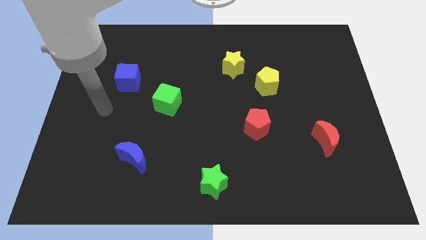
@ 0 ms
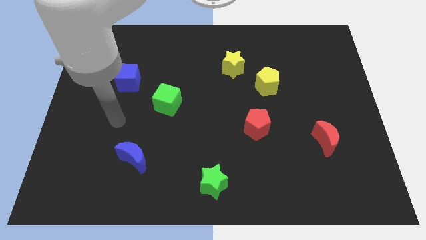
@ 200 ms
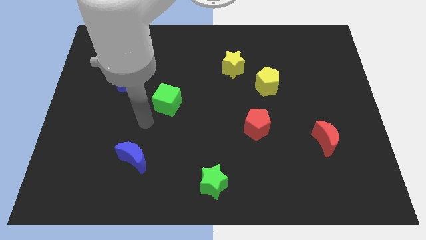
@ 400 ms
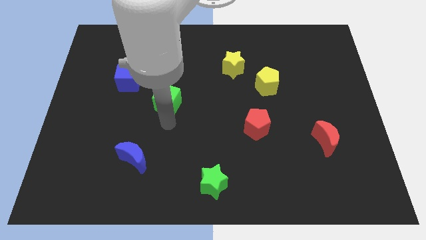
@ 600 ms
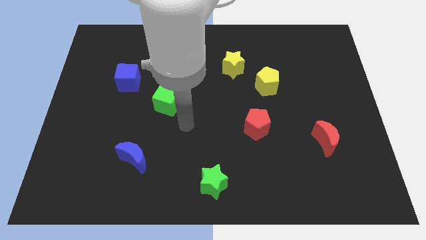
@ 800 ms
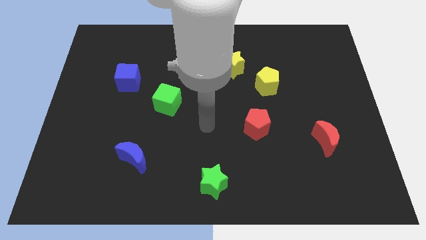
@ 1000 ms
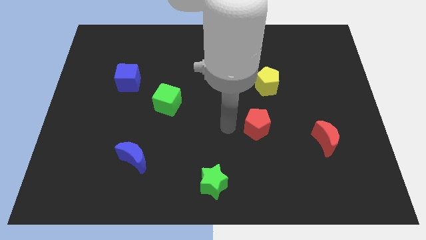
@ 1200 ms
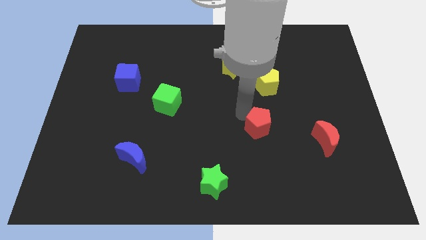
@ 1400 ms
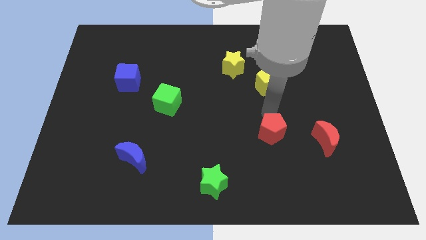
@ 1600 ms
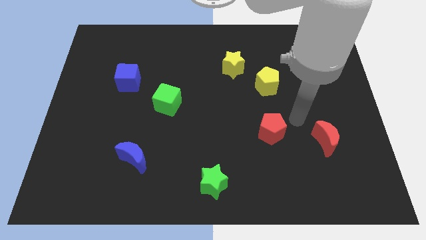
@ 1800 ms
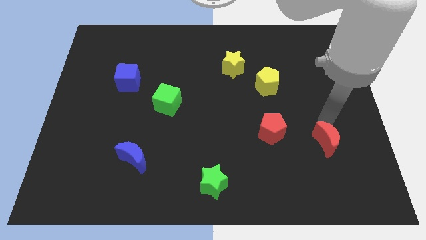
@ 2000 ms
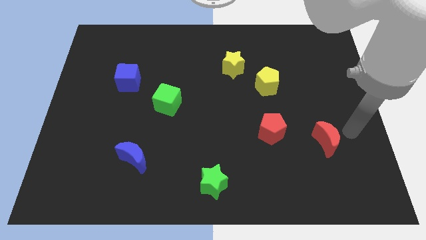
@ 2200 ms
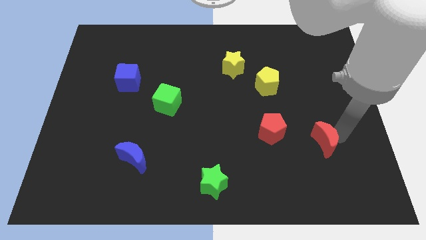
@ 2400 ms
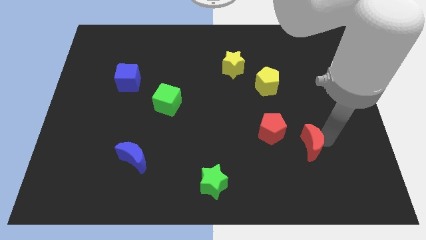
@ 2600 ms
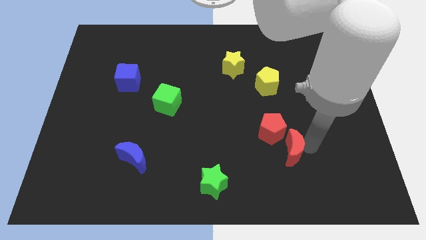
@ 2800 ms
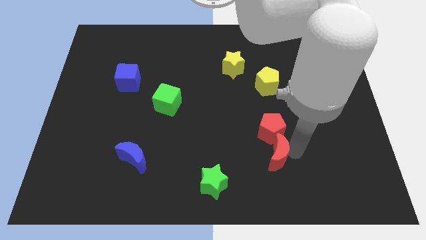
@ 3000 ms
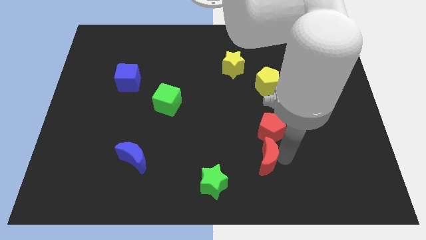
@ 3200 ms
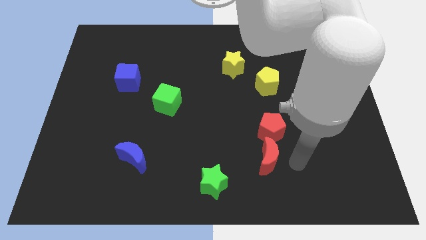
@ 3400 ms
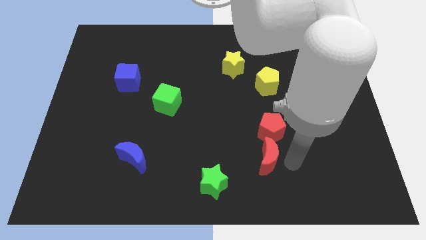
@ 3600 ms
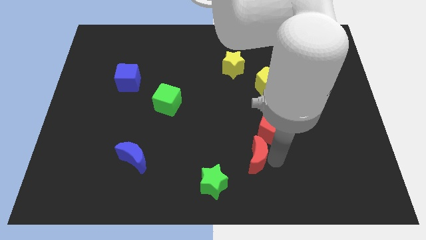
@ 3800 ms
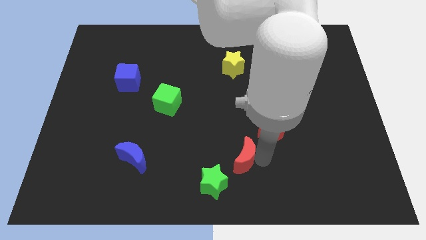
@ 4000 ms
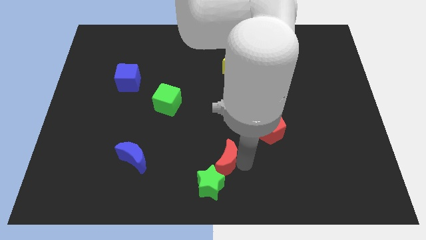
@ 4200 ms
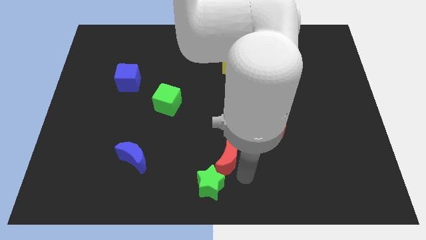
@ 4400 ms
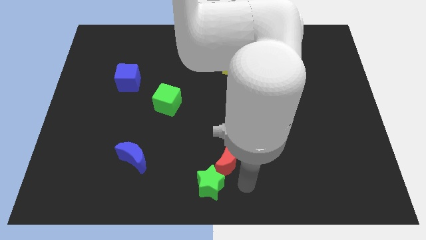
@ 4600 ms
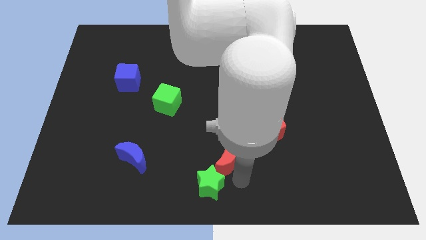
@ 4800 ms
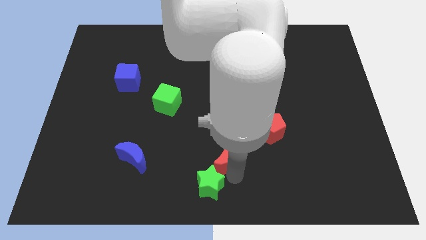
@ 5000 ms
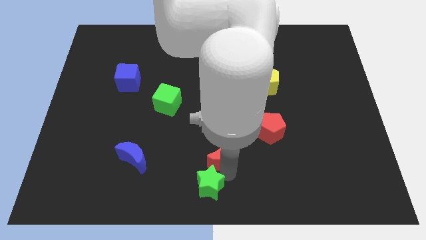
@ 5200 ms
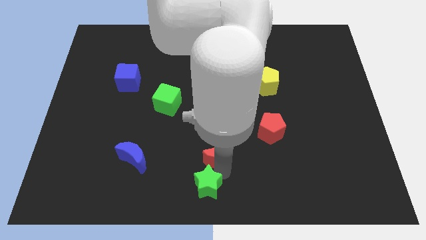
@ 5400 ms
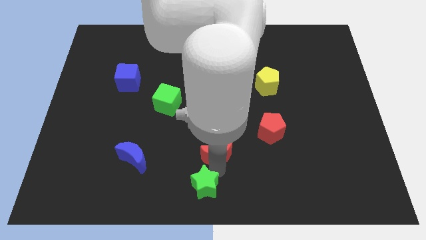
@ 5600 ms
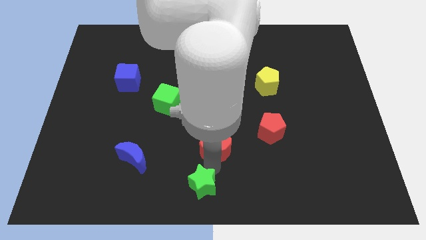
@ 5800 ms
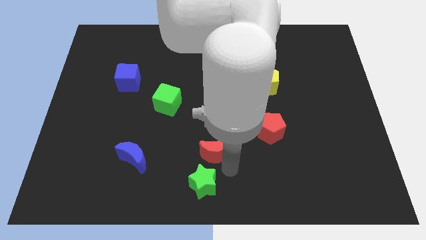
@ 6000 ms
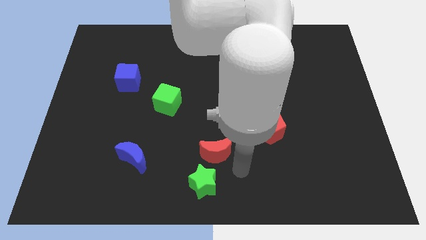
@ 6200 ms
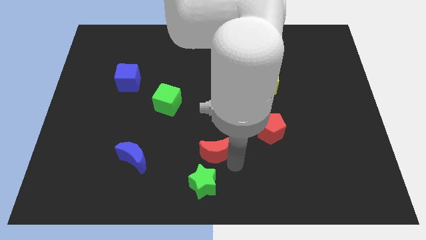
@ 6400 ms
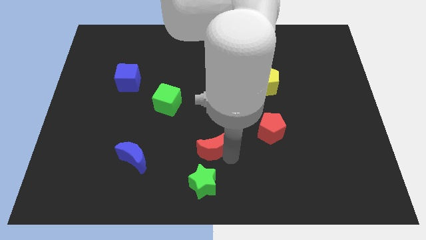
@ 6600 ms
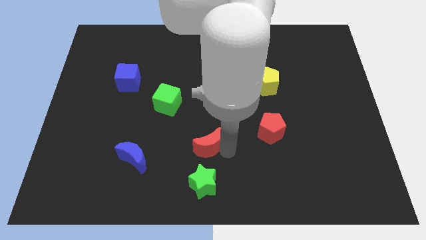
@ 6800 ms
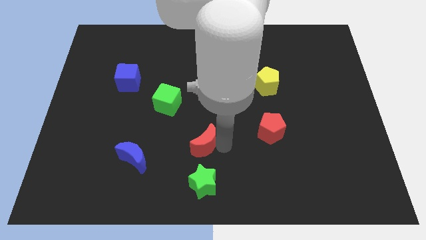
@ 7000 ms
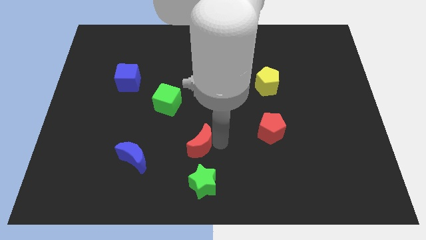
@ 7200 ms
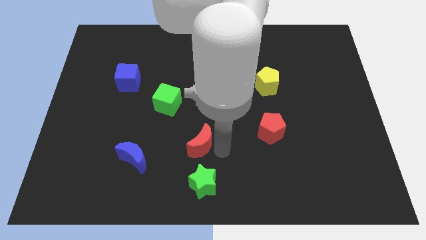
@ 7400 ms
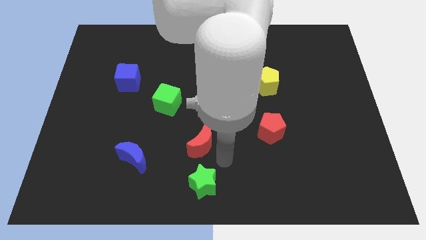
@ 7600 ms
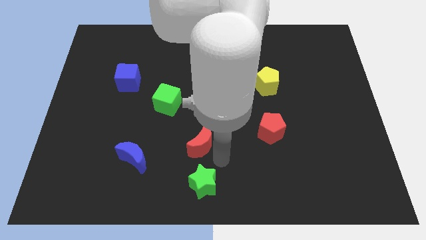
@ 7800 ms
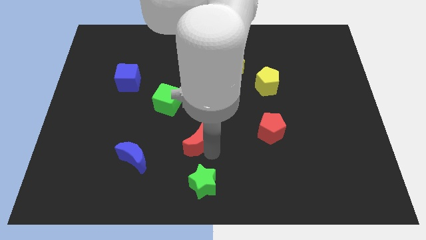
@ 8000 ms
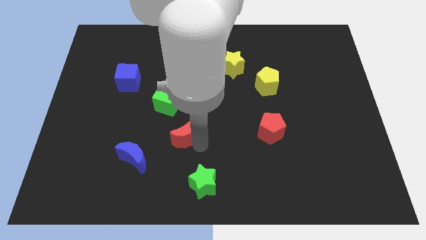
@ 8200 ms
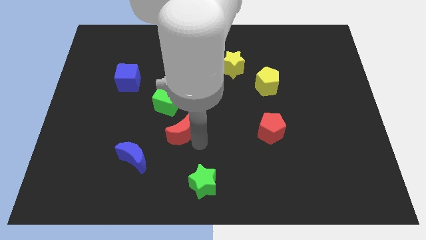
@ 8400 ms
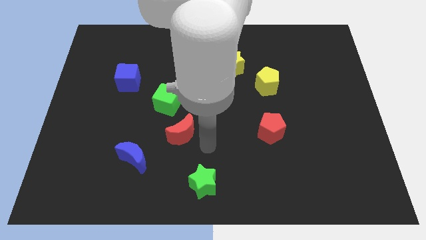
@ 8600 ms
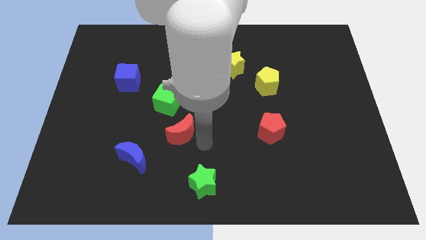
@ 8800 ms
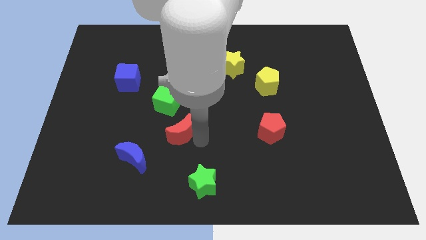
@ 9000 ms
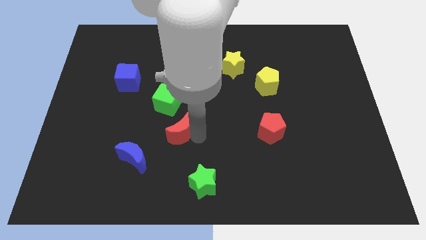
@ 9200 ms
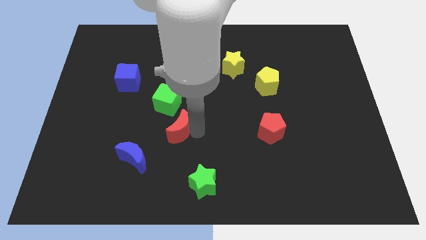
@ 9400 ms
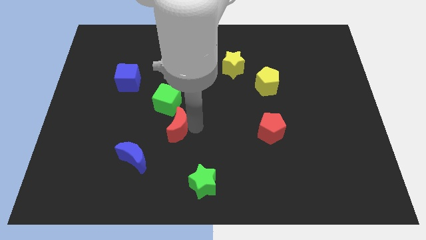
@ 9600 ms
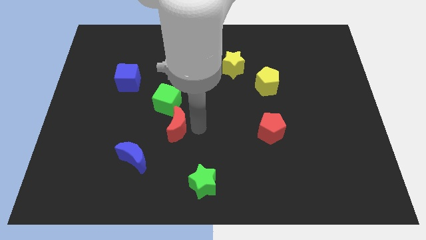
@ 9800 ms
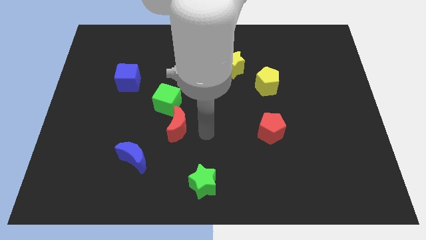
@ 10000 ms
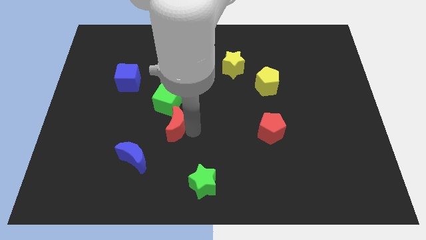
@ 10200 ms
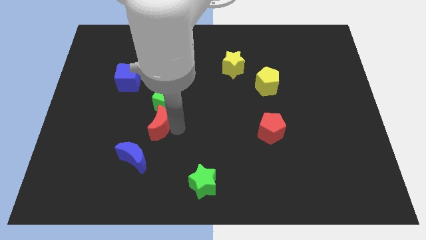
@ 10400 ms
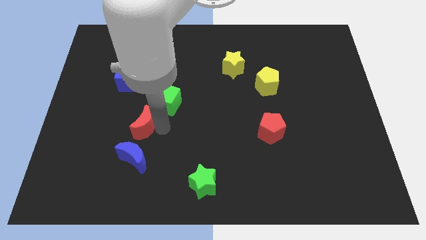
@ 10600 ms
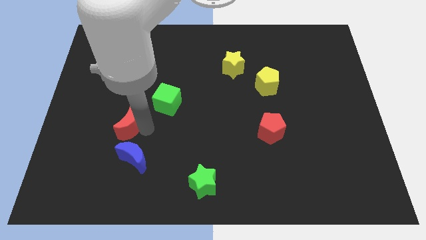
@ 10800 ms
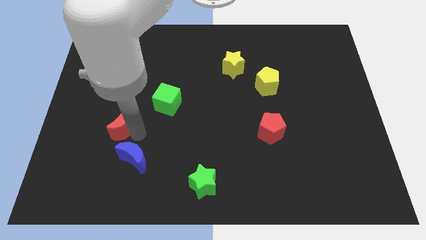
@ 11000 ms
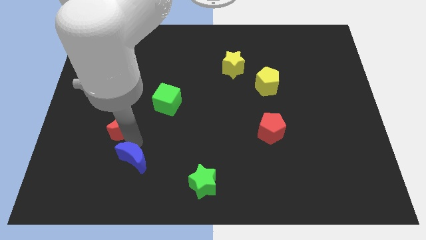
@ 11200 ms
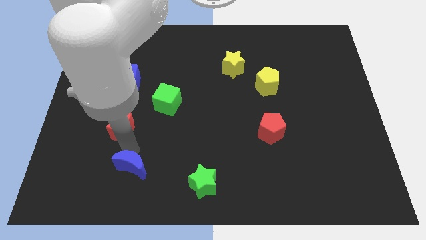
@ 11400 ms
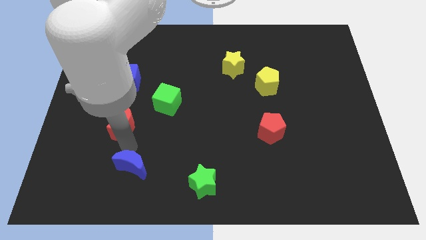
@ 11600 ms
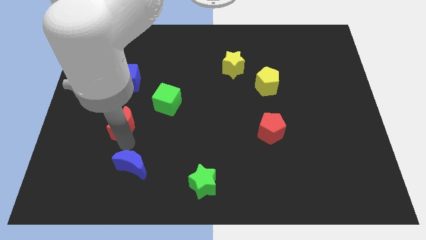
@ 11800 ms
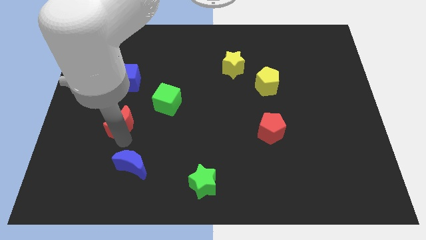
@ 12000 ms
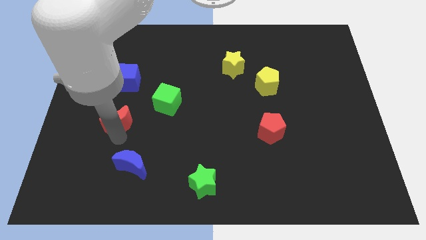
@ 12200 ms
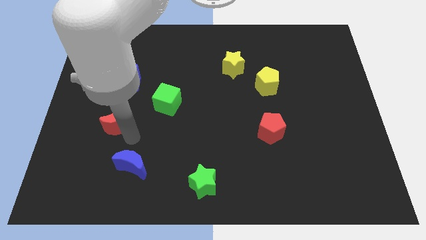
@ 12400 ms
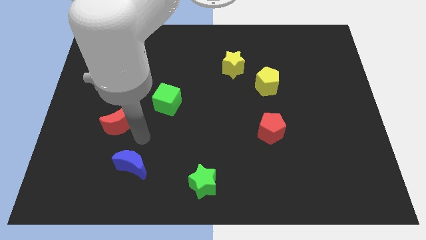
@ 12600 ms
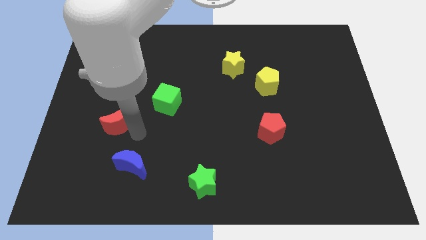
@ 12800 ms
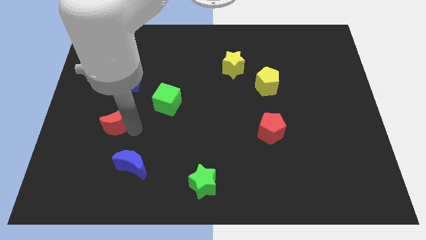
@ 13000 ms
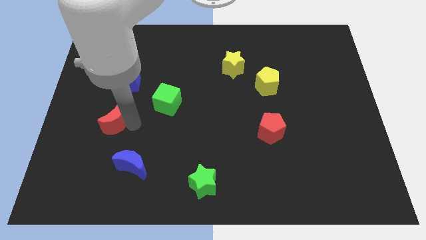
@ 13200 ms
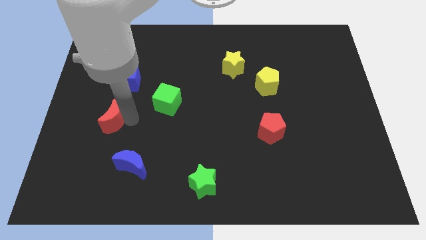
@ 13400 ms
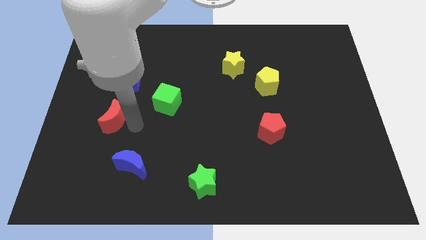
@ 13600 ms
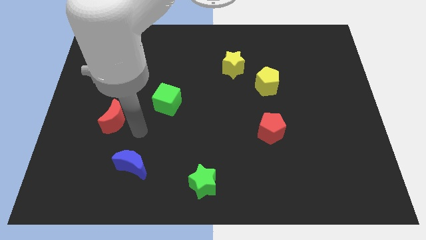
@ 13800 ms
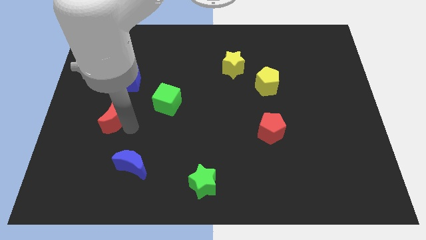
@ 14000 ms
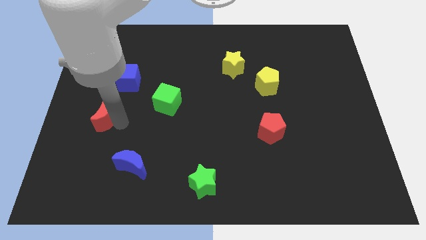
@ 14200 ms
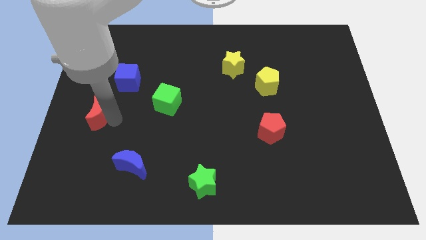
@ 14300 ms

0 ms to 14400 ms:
move the red moon to the center left
